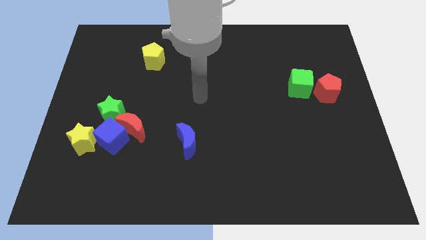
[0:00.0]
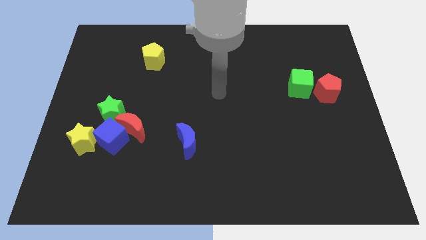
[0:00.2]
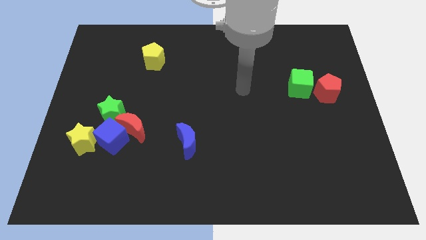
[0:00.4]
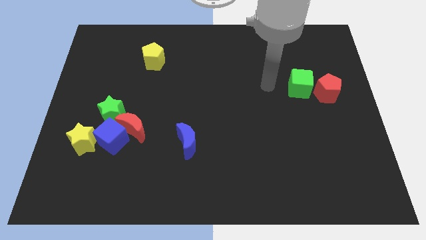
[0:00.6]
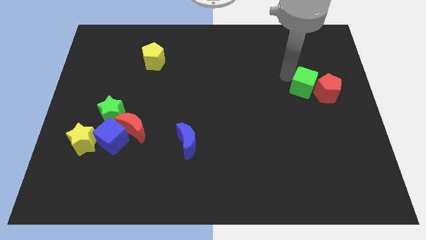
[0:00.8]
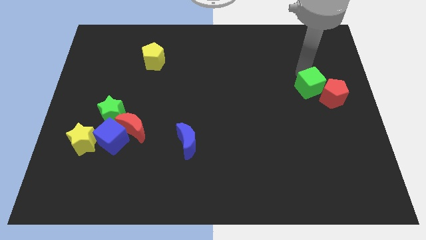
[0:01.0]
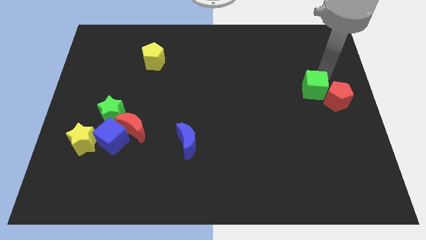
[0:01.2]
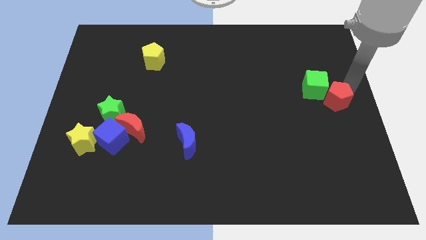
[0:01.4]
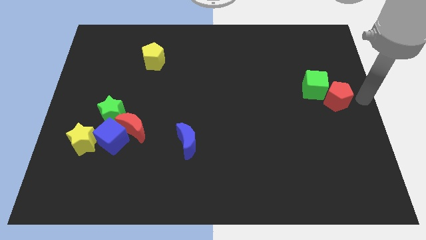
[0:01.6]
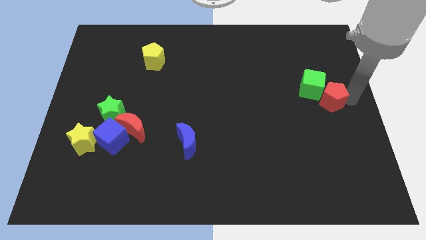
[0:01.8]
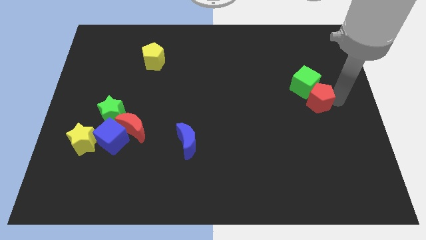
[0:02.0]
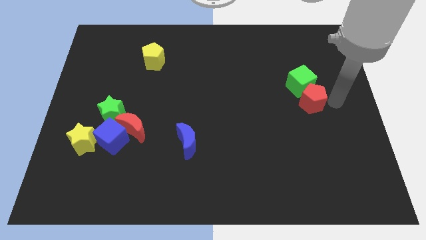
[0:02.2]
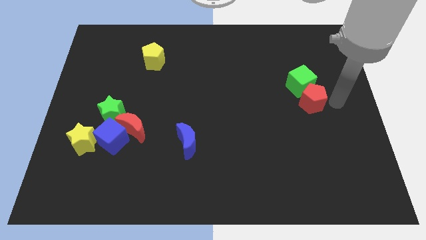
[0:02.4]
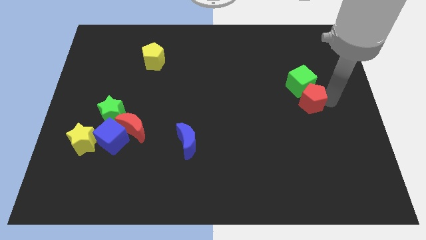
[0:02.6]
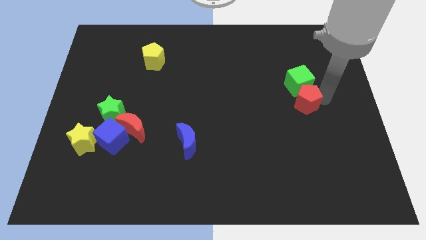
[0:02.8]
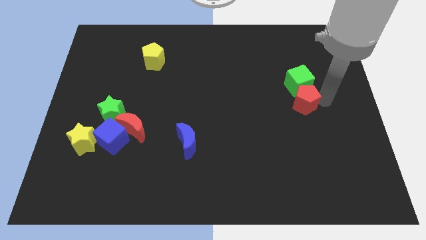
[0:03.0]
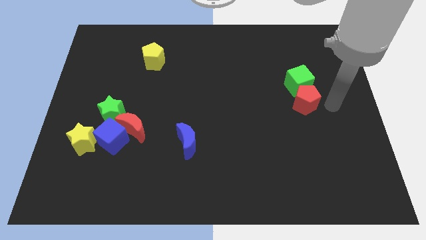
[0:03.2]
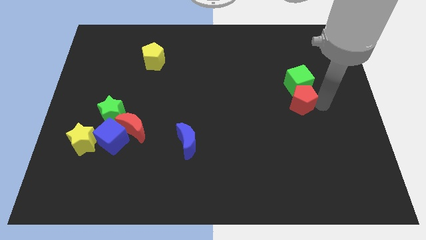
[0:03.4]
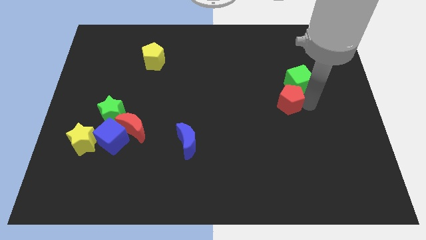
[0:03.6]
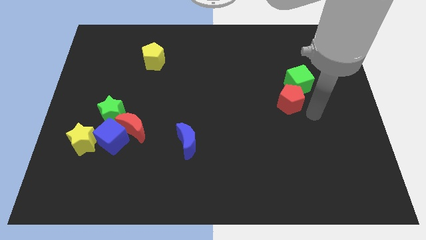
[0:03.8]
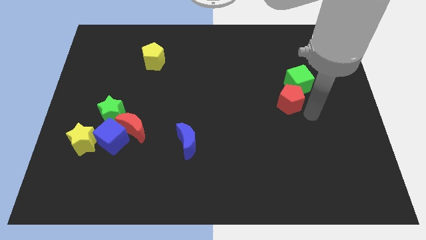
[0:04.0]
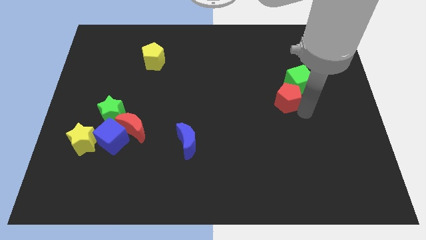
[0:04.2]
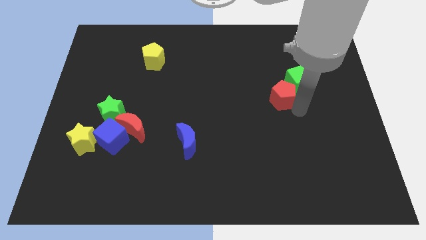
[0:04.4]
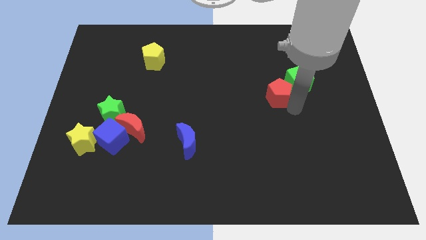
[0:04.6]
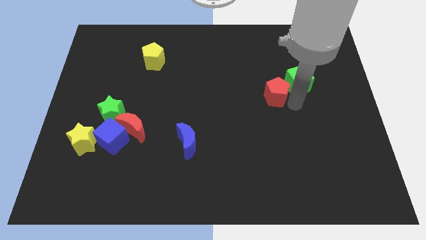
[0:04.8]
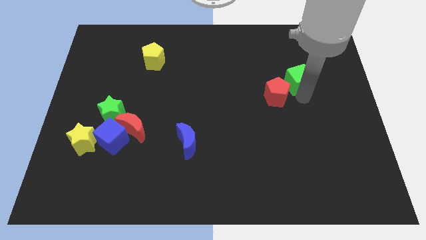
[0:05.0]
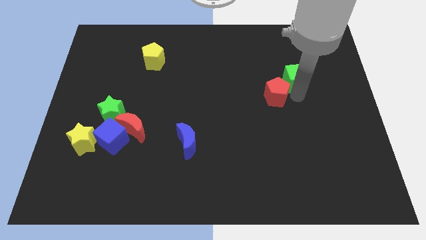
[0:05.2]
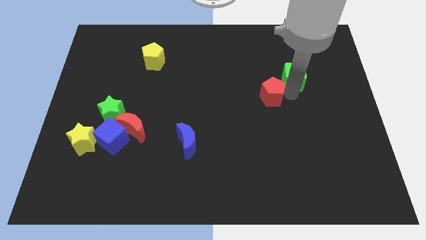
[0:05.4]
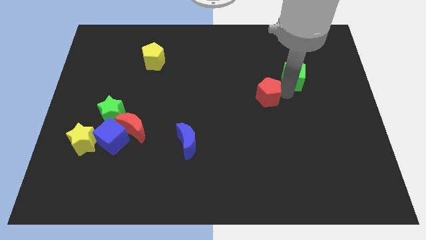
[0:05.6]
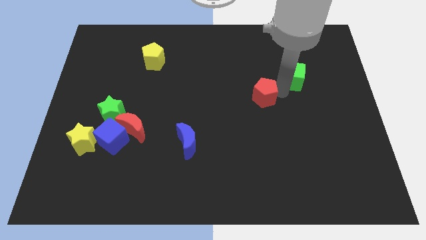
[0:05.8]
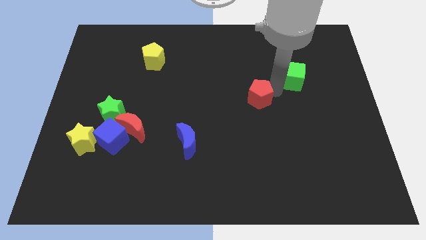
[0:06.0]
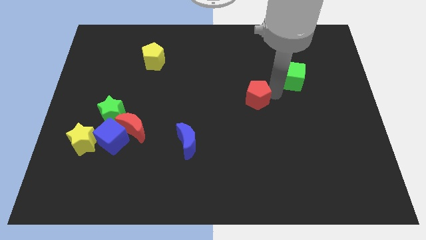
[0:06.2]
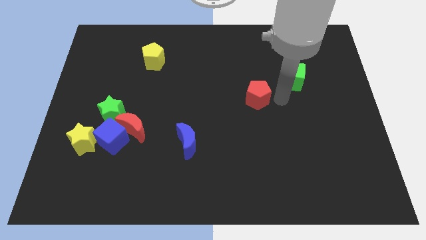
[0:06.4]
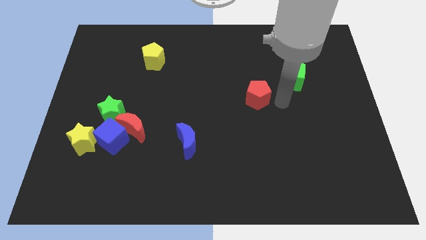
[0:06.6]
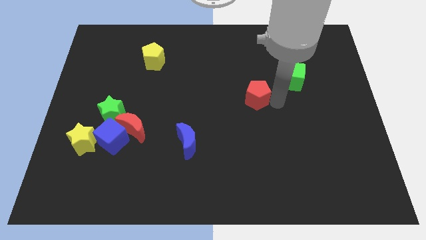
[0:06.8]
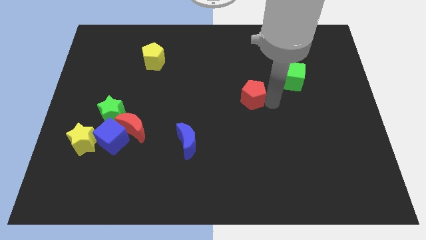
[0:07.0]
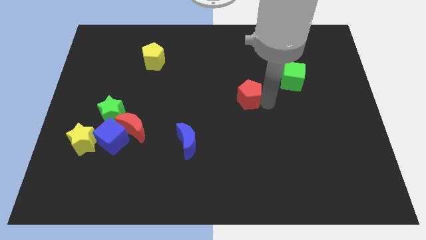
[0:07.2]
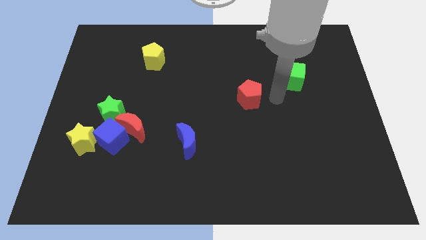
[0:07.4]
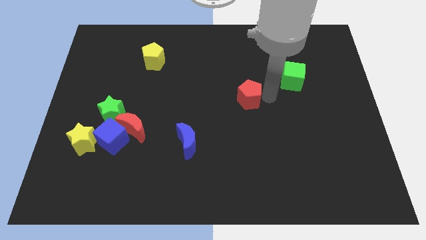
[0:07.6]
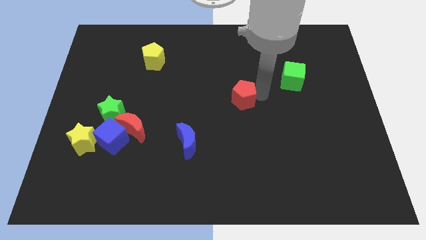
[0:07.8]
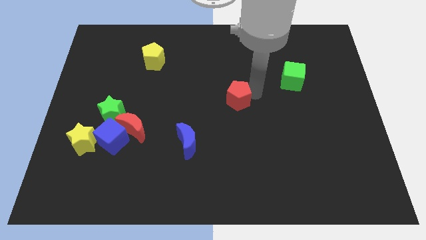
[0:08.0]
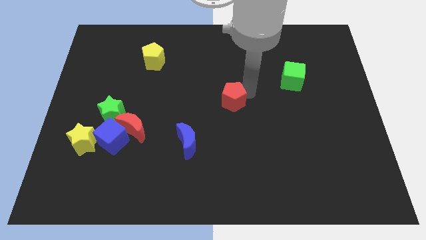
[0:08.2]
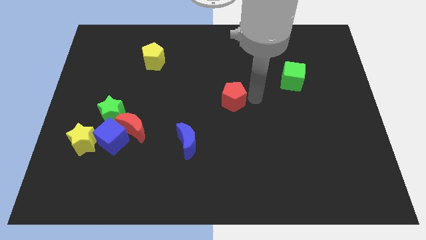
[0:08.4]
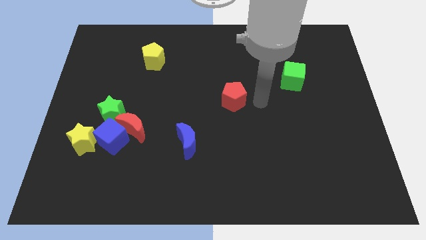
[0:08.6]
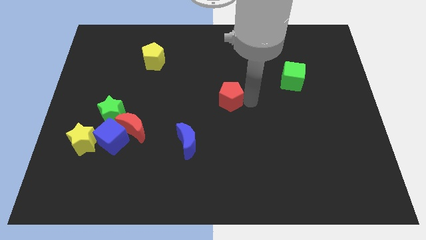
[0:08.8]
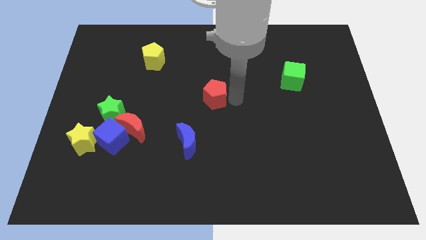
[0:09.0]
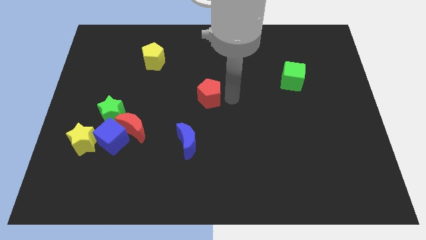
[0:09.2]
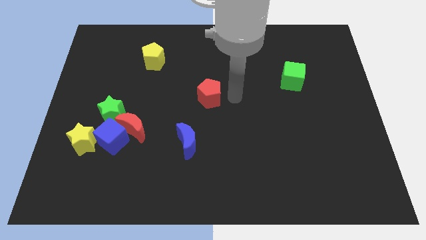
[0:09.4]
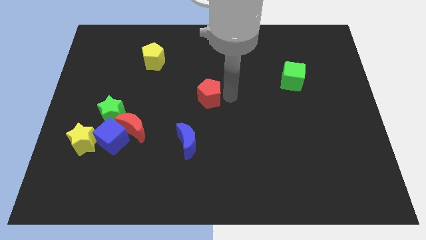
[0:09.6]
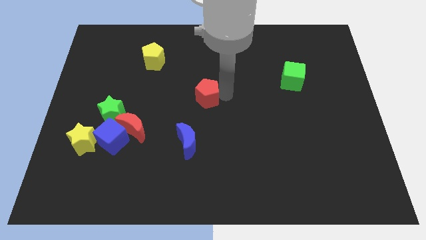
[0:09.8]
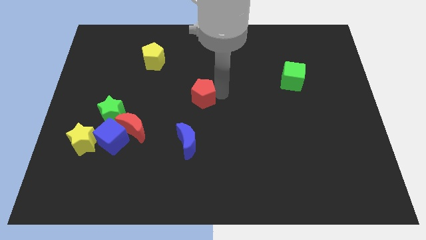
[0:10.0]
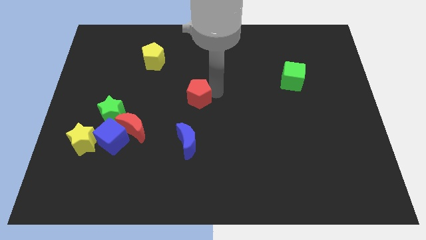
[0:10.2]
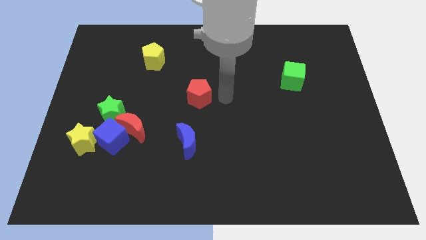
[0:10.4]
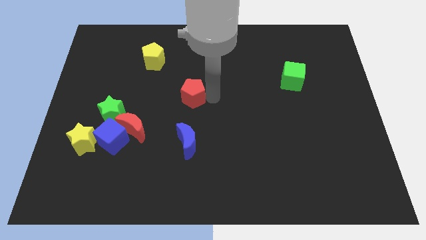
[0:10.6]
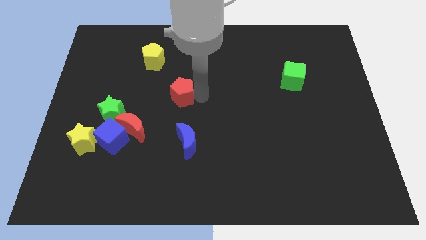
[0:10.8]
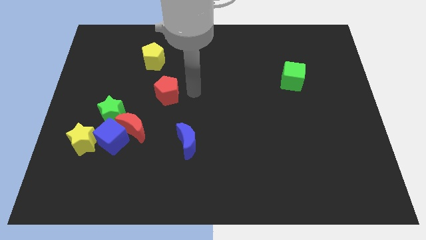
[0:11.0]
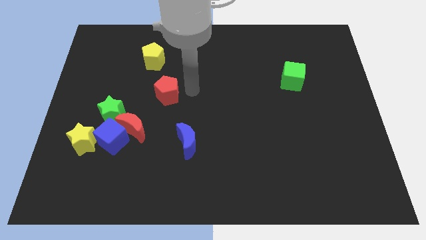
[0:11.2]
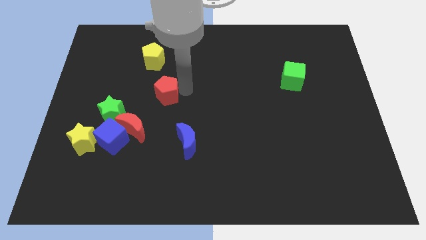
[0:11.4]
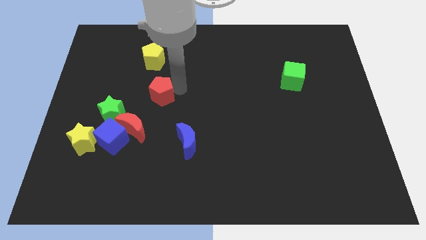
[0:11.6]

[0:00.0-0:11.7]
move the red pentagon to the top right side of the green star

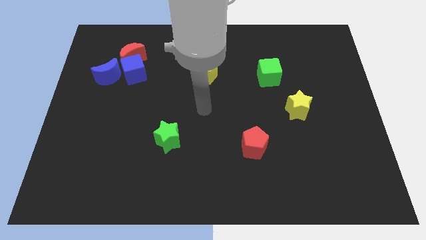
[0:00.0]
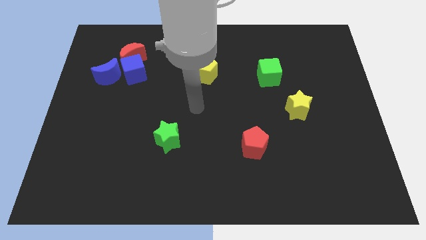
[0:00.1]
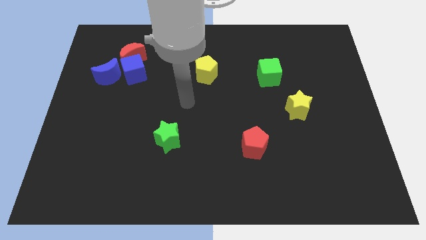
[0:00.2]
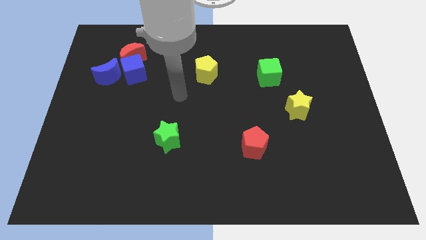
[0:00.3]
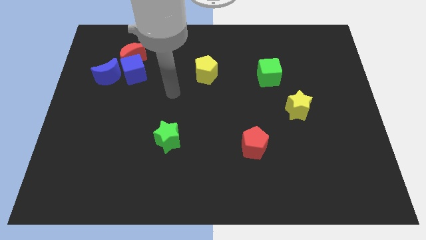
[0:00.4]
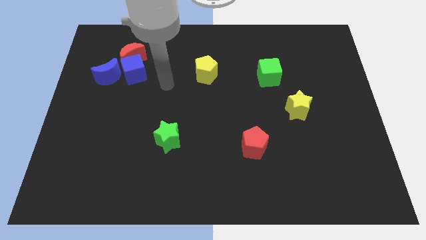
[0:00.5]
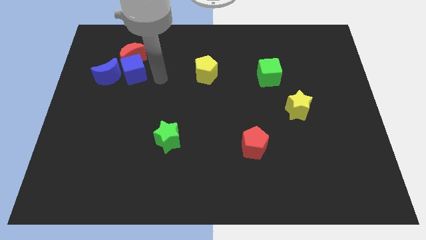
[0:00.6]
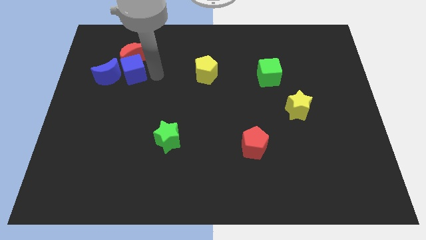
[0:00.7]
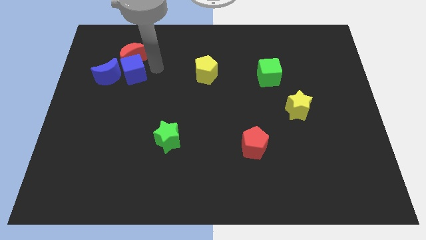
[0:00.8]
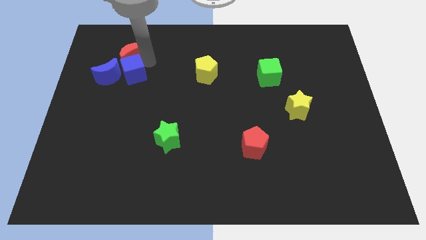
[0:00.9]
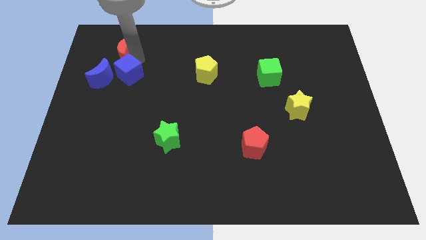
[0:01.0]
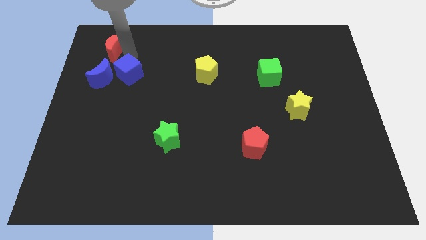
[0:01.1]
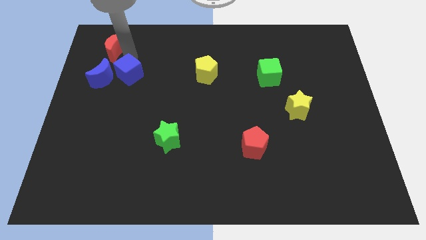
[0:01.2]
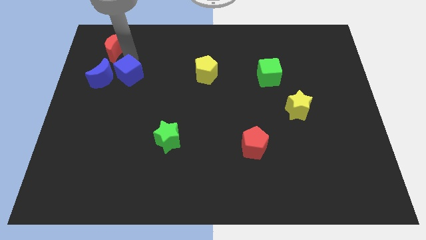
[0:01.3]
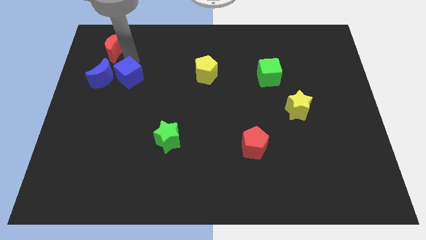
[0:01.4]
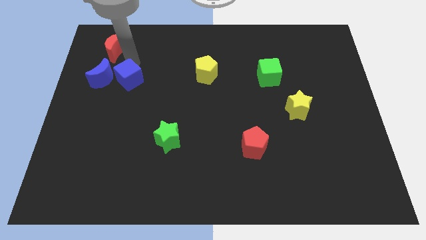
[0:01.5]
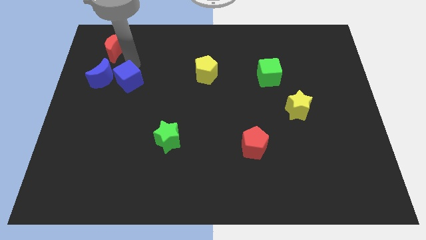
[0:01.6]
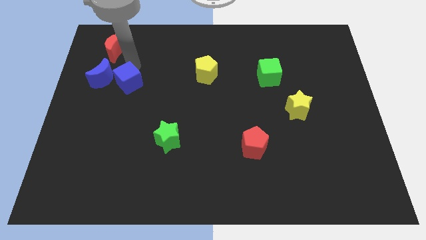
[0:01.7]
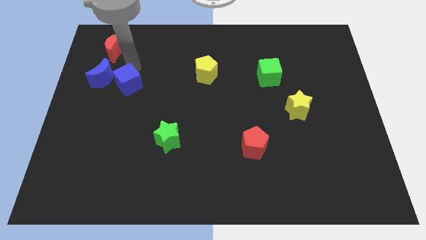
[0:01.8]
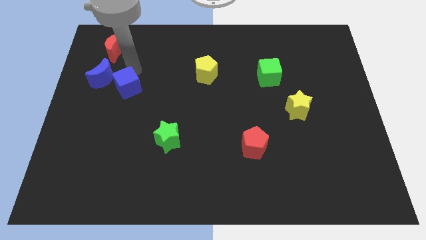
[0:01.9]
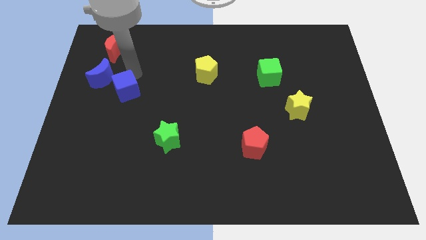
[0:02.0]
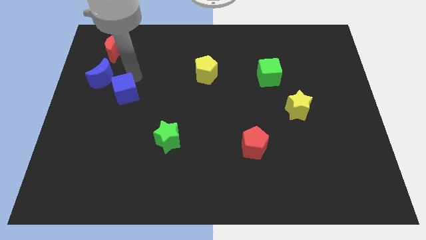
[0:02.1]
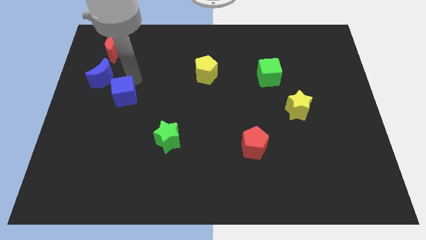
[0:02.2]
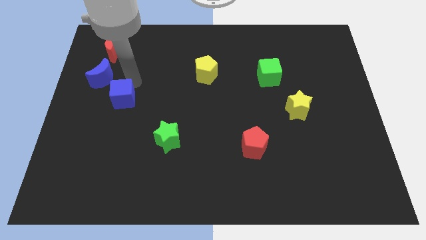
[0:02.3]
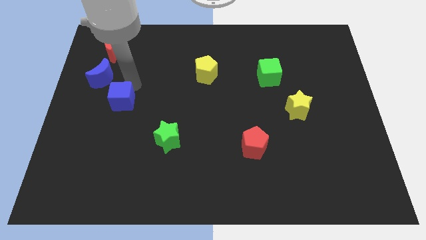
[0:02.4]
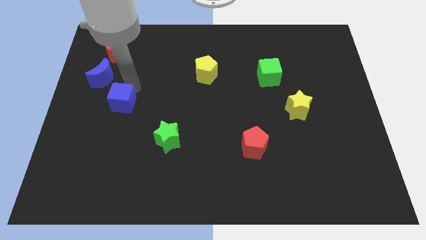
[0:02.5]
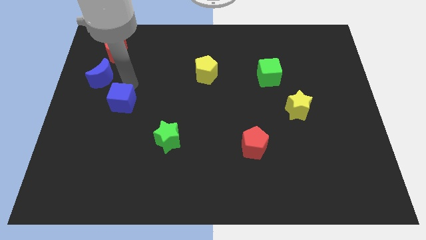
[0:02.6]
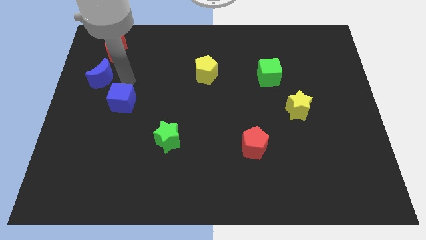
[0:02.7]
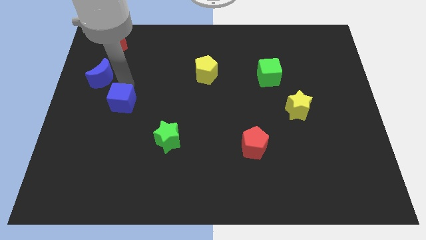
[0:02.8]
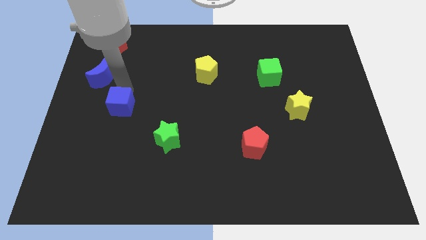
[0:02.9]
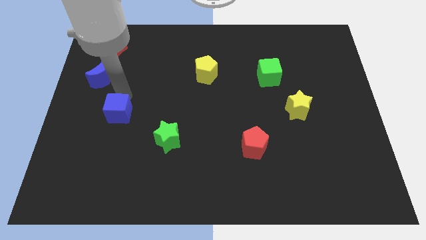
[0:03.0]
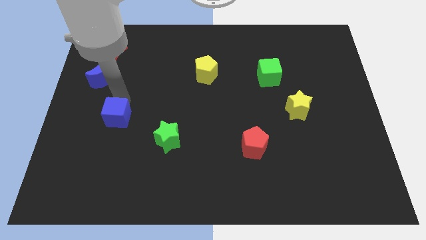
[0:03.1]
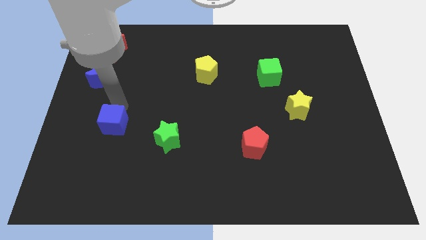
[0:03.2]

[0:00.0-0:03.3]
put the blue cube to the left of the green star
